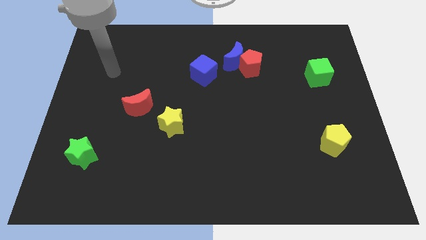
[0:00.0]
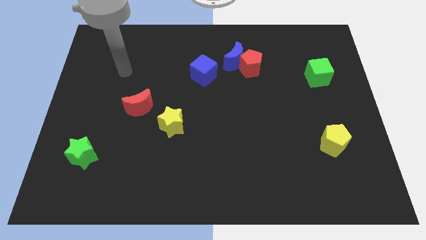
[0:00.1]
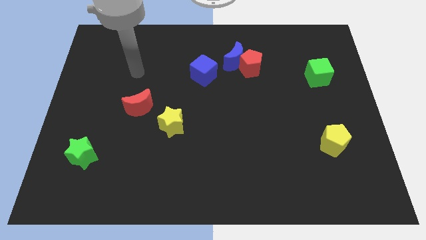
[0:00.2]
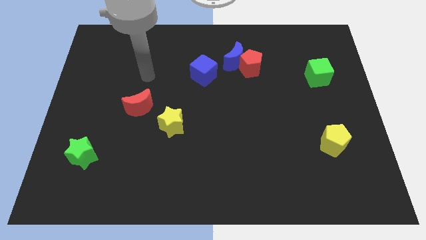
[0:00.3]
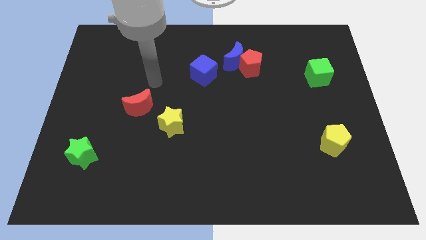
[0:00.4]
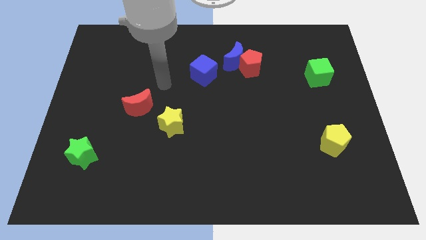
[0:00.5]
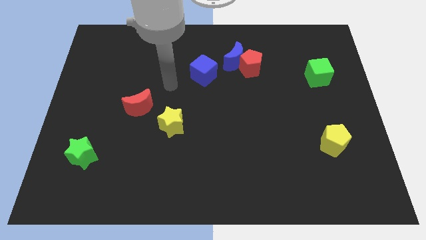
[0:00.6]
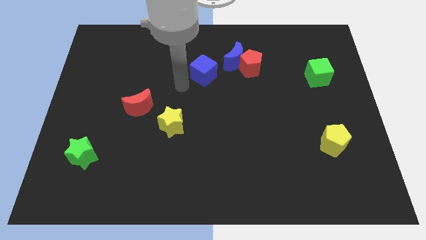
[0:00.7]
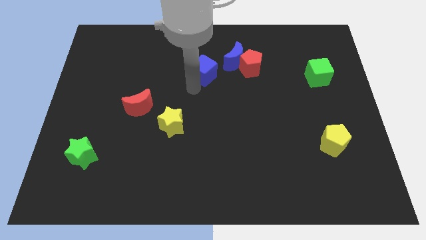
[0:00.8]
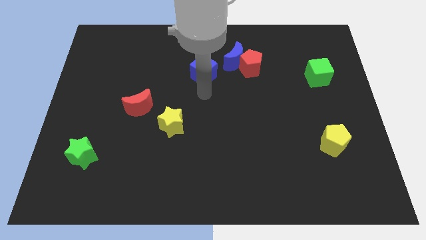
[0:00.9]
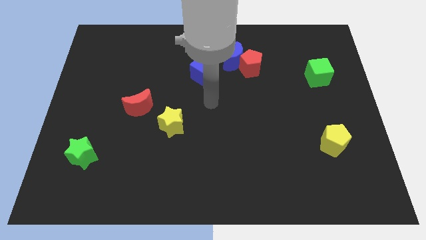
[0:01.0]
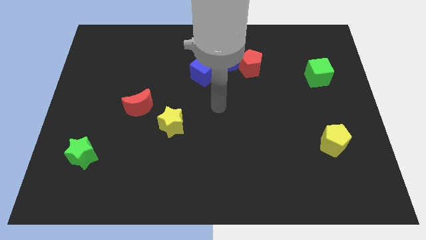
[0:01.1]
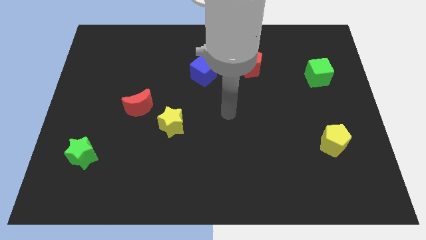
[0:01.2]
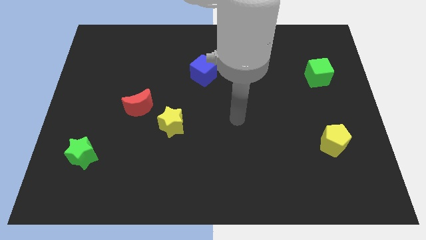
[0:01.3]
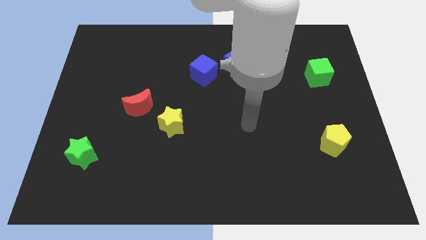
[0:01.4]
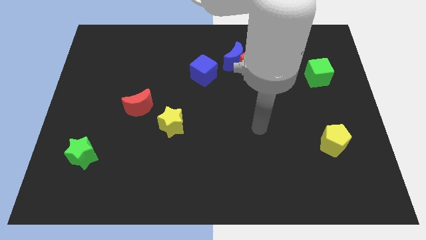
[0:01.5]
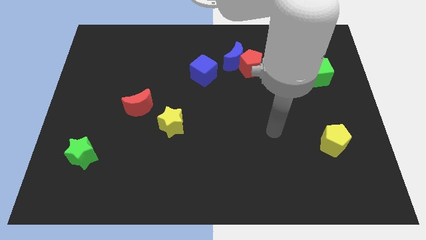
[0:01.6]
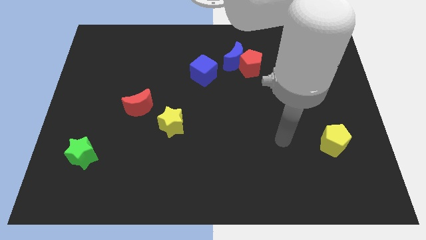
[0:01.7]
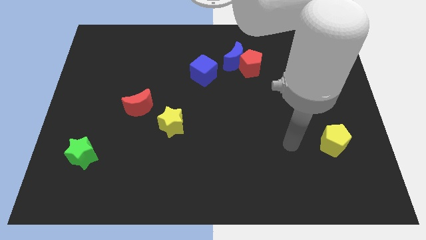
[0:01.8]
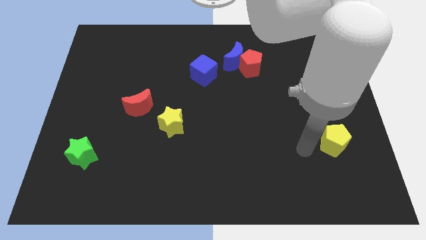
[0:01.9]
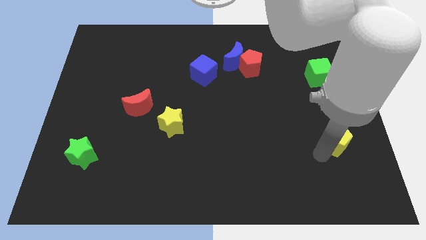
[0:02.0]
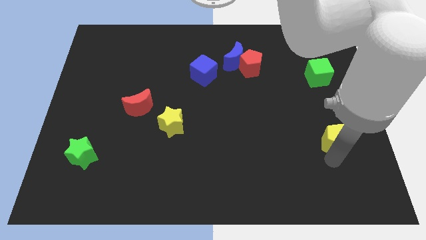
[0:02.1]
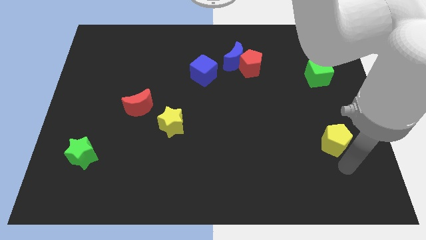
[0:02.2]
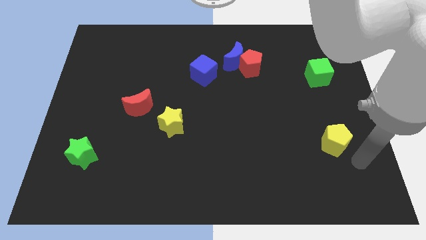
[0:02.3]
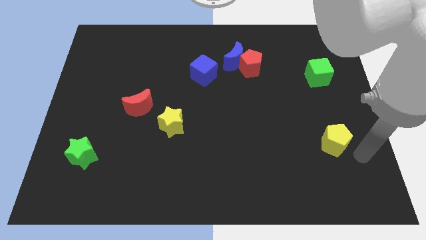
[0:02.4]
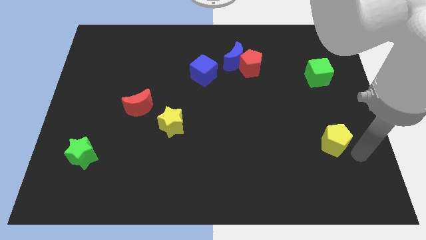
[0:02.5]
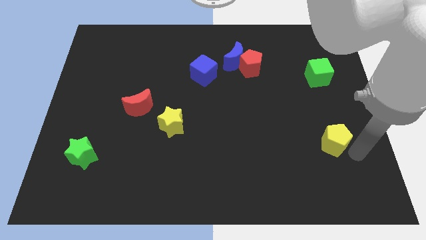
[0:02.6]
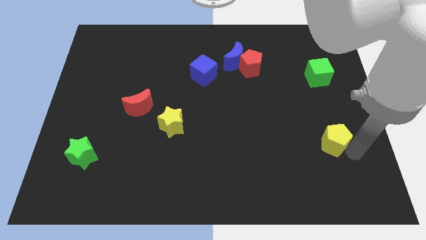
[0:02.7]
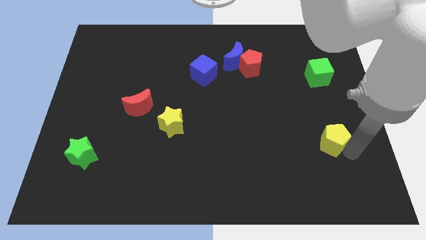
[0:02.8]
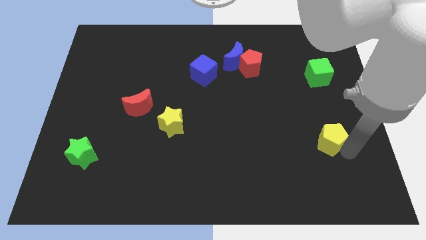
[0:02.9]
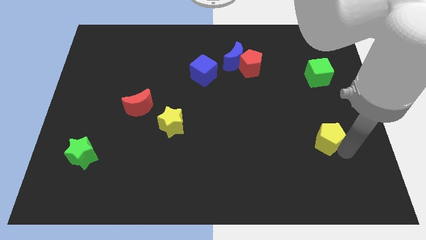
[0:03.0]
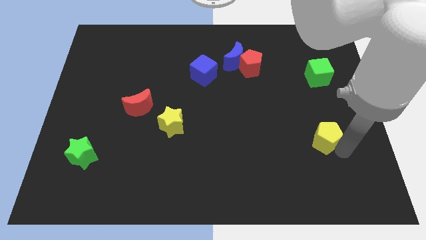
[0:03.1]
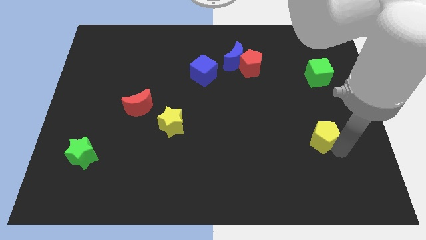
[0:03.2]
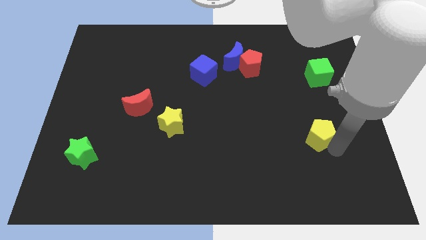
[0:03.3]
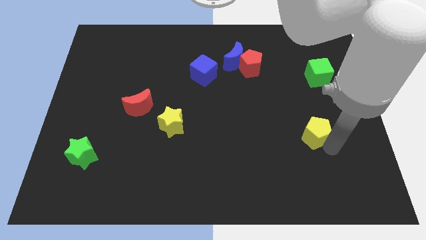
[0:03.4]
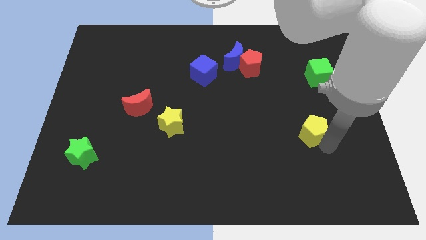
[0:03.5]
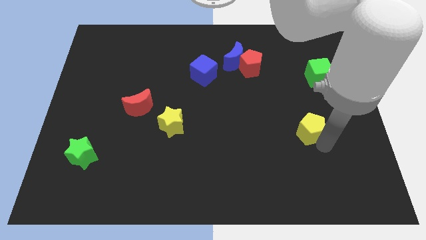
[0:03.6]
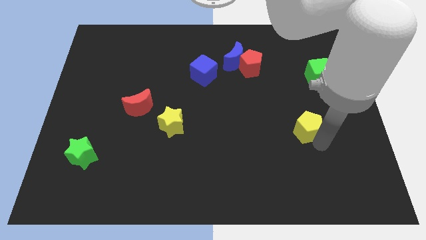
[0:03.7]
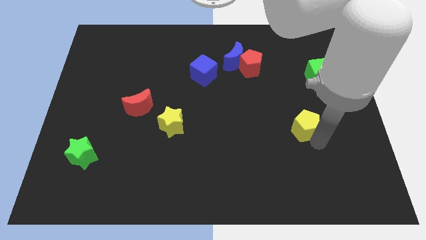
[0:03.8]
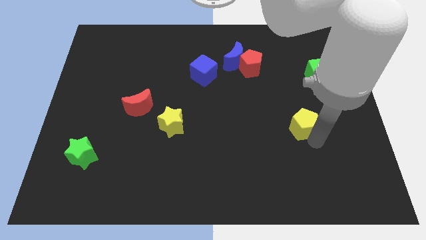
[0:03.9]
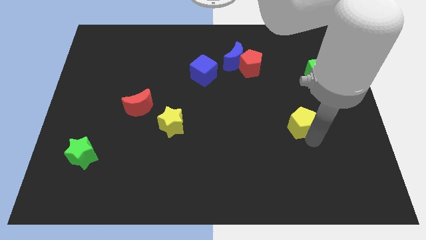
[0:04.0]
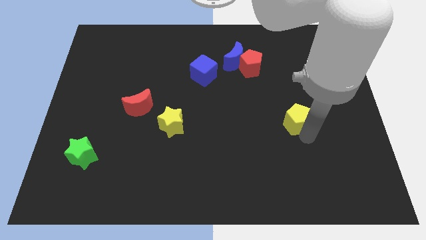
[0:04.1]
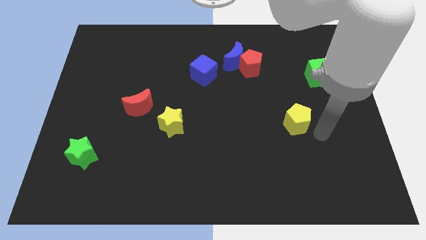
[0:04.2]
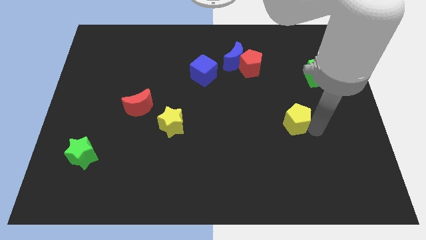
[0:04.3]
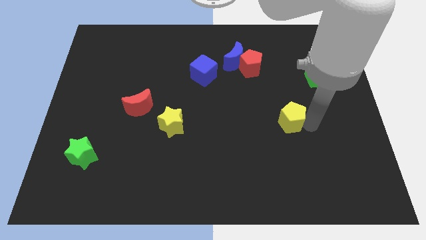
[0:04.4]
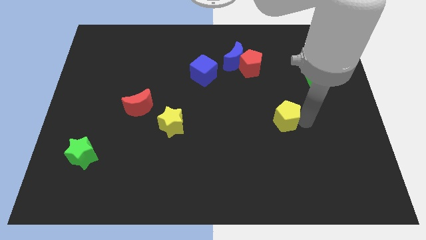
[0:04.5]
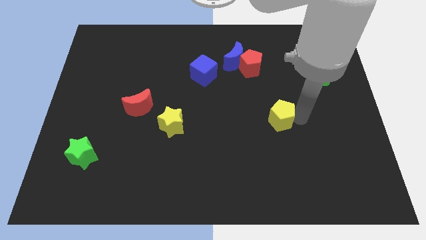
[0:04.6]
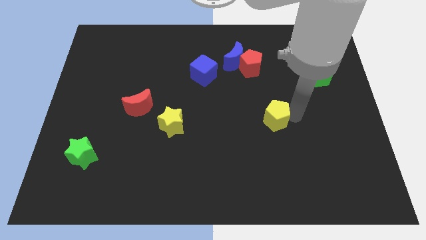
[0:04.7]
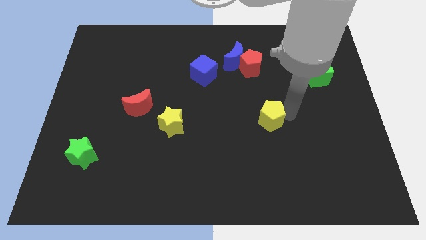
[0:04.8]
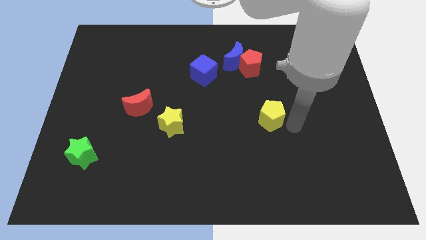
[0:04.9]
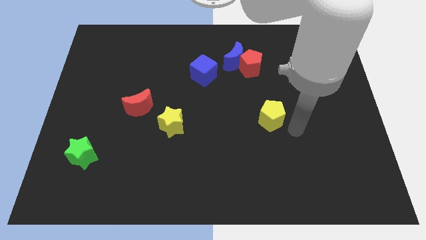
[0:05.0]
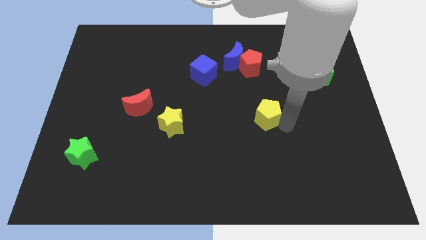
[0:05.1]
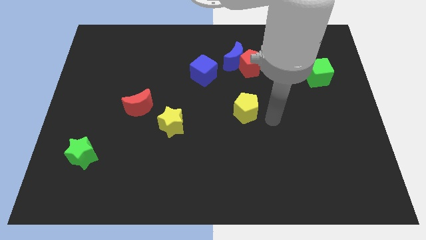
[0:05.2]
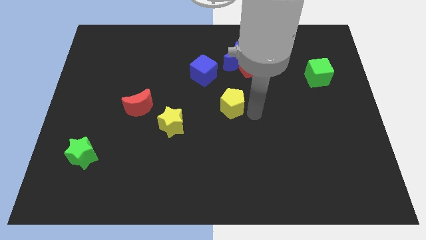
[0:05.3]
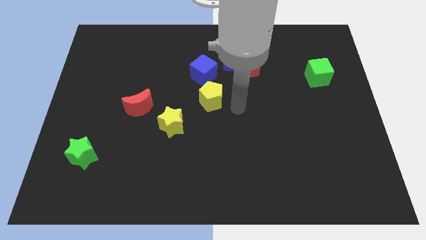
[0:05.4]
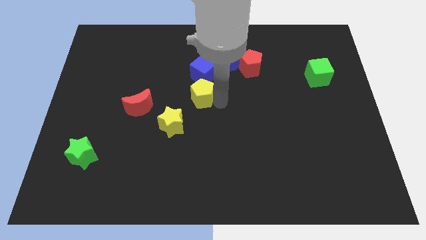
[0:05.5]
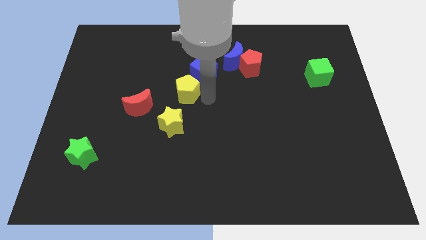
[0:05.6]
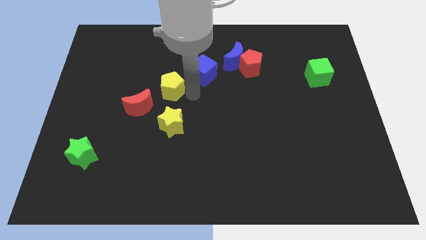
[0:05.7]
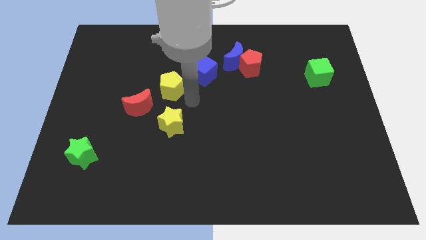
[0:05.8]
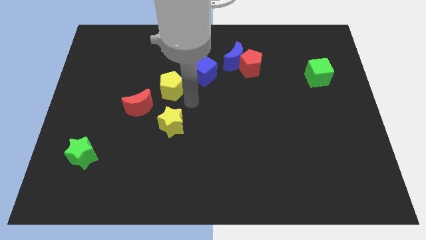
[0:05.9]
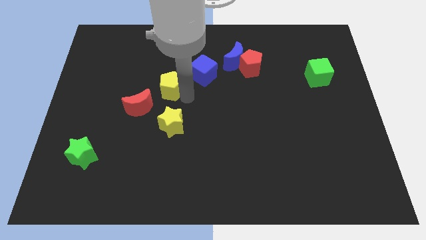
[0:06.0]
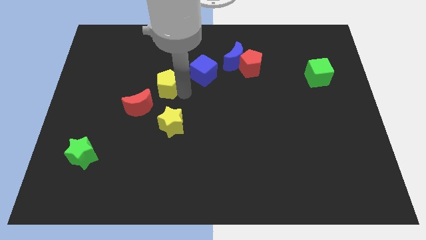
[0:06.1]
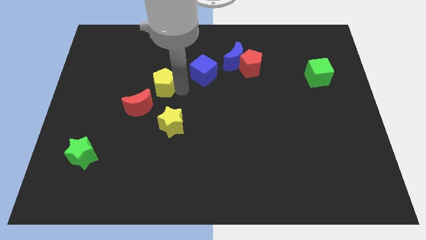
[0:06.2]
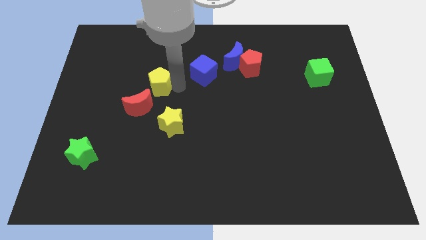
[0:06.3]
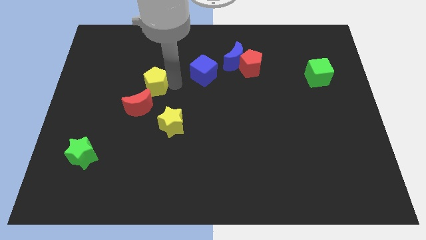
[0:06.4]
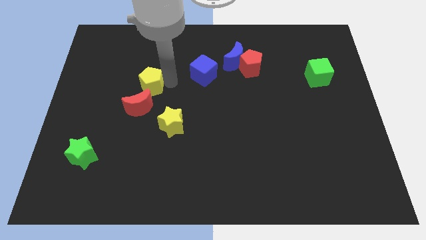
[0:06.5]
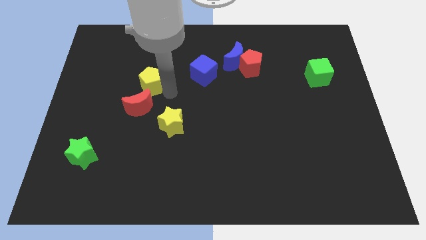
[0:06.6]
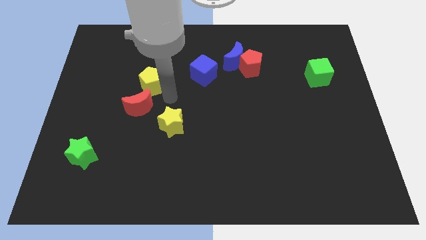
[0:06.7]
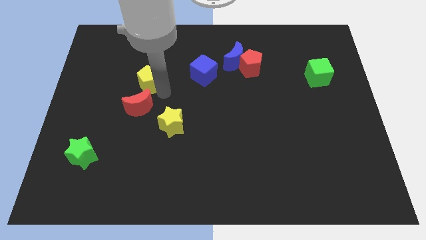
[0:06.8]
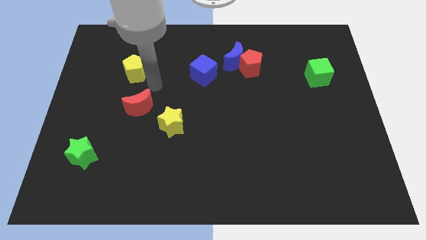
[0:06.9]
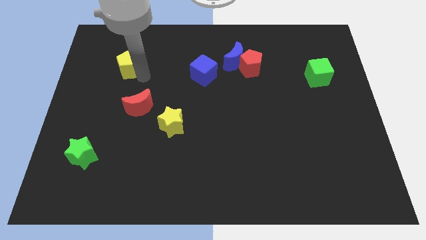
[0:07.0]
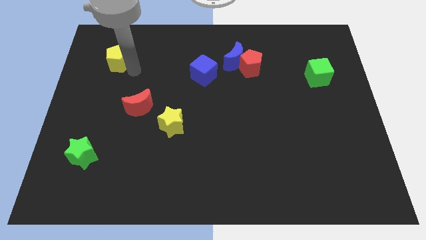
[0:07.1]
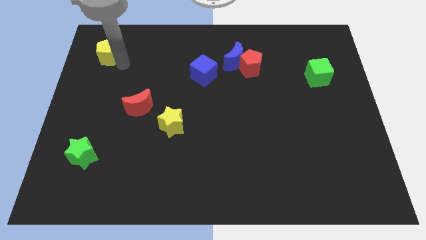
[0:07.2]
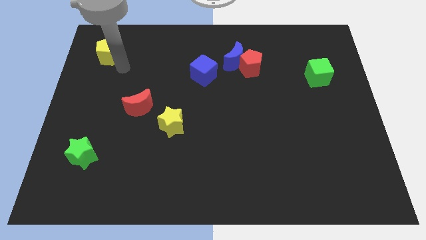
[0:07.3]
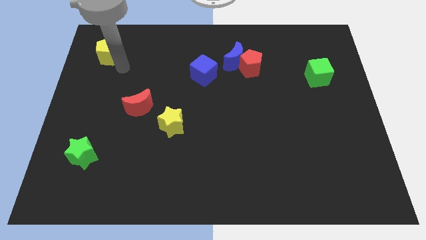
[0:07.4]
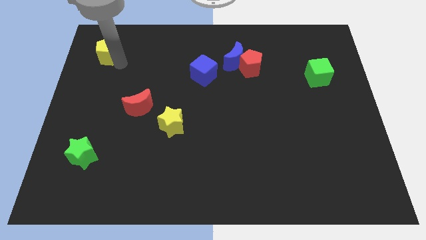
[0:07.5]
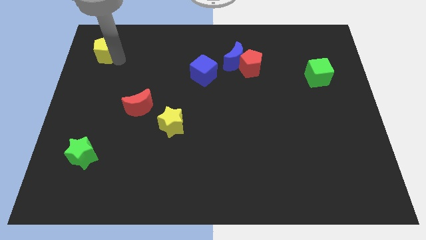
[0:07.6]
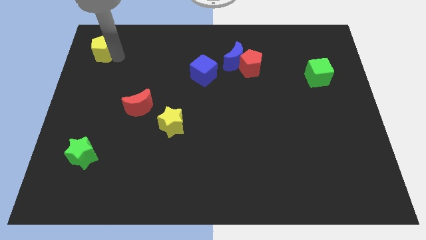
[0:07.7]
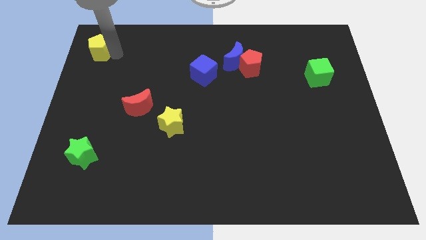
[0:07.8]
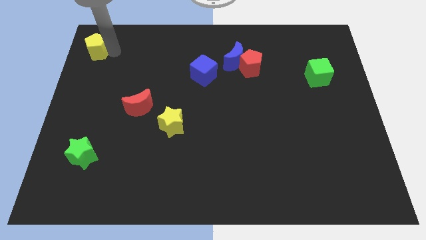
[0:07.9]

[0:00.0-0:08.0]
move the yellow pentagon to the top left of the board
